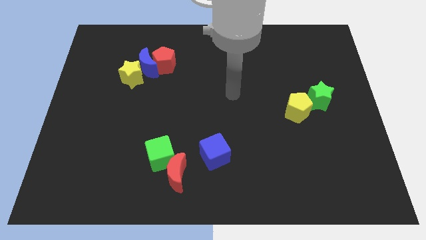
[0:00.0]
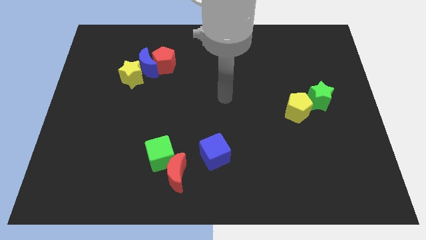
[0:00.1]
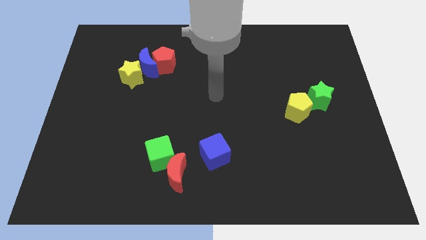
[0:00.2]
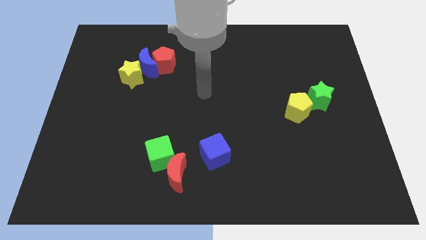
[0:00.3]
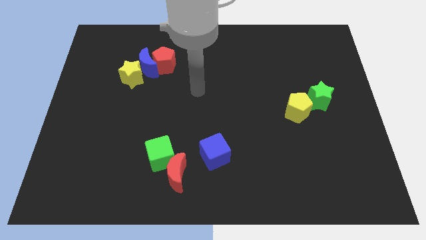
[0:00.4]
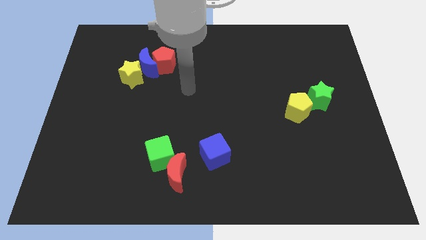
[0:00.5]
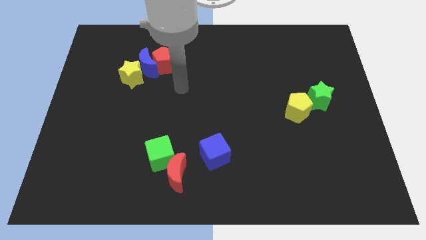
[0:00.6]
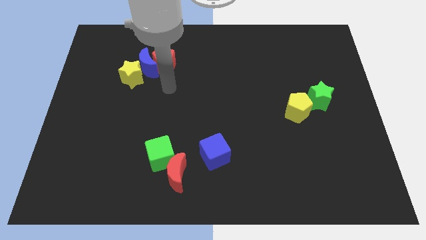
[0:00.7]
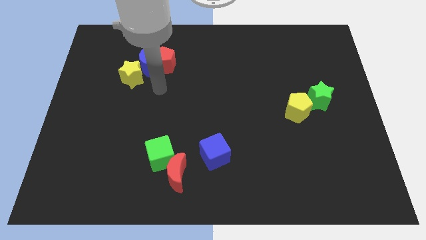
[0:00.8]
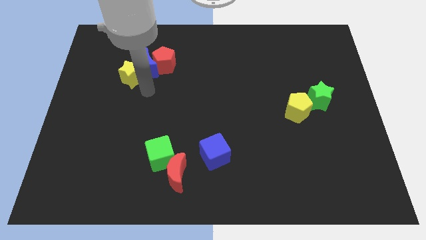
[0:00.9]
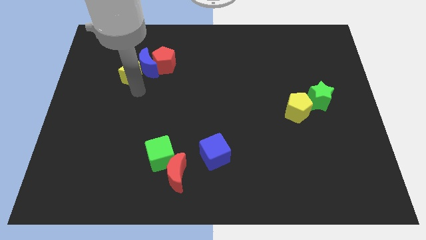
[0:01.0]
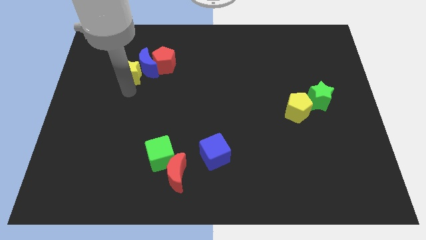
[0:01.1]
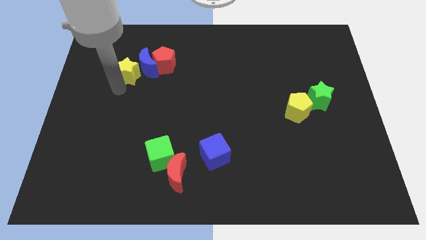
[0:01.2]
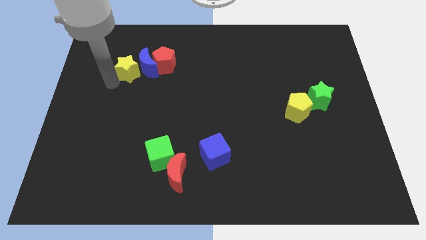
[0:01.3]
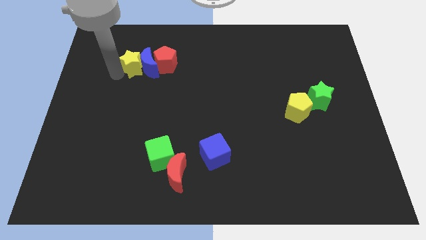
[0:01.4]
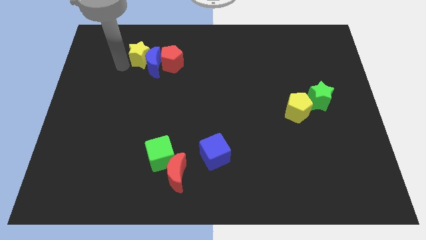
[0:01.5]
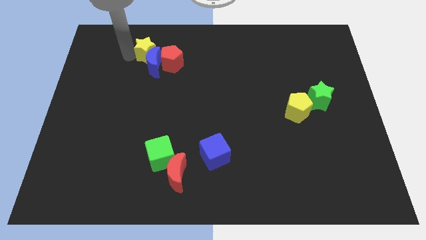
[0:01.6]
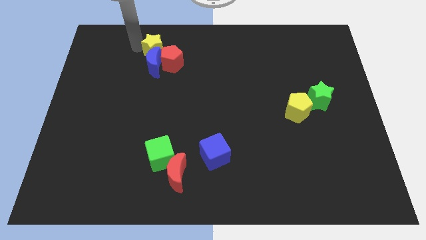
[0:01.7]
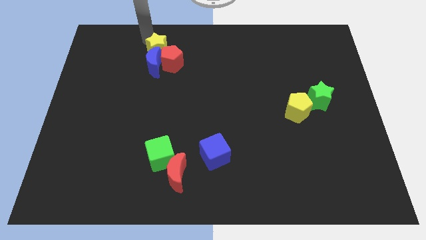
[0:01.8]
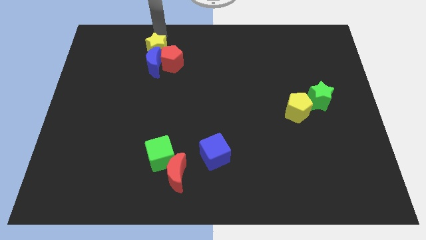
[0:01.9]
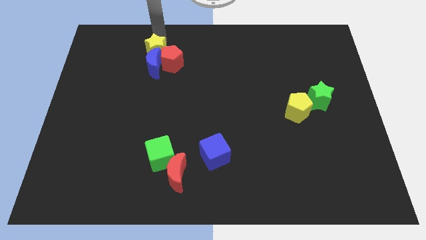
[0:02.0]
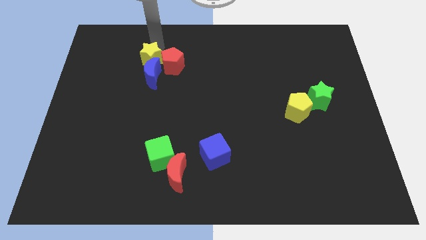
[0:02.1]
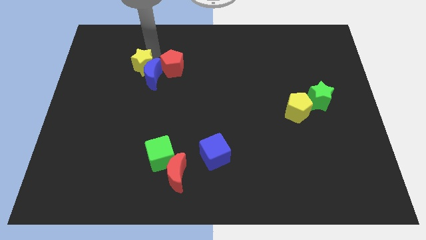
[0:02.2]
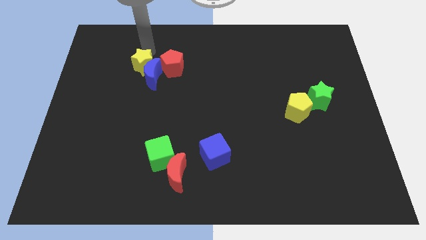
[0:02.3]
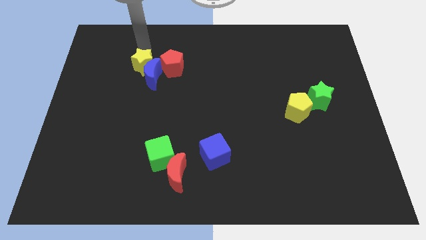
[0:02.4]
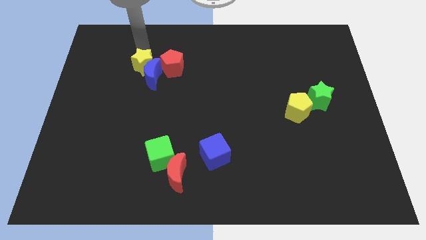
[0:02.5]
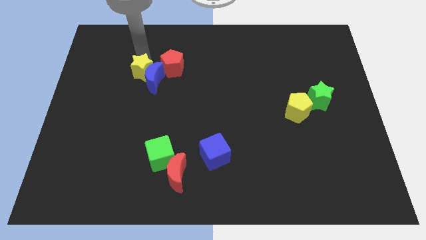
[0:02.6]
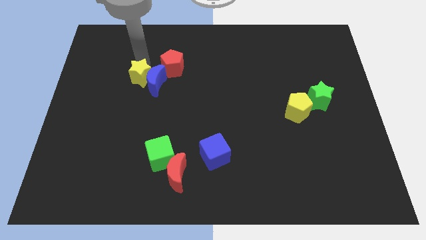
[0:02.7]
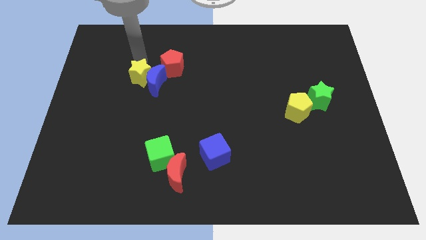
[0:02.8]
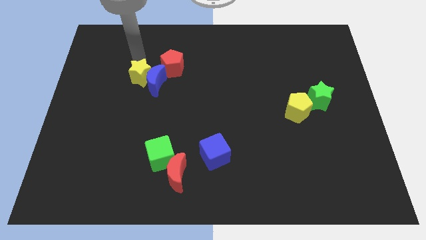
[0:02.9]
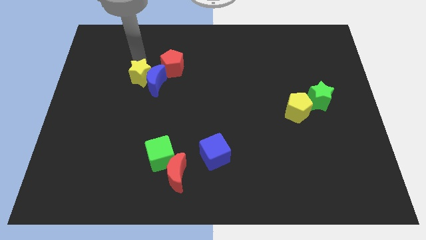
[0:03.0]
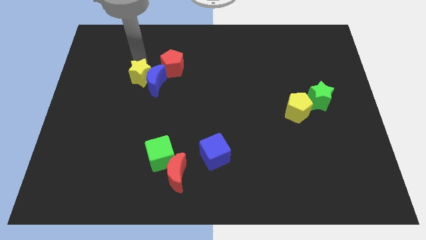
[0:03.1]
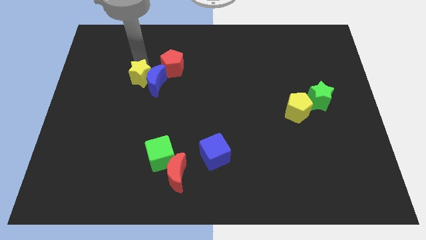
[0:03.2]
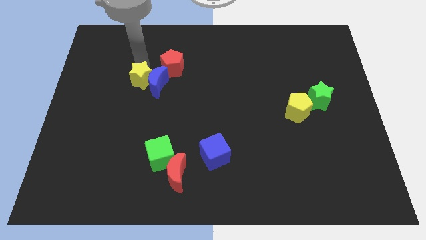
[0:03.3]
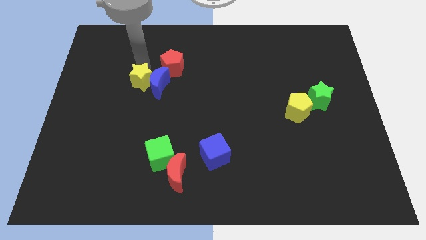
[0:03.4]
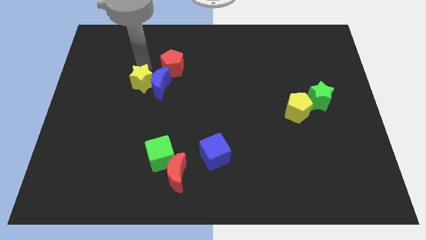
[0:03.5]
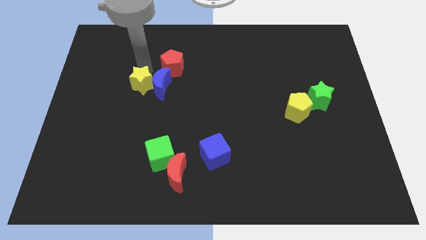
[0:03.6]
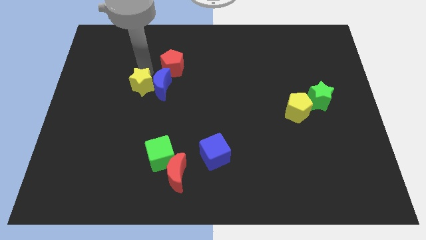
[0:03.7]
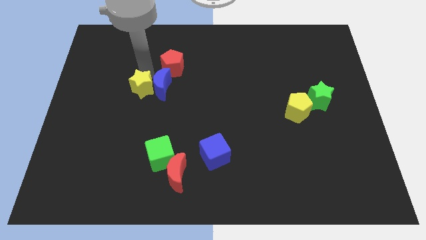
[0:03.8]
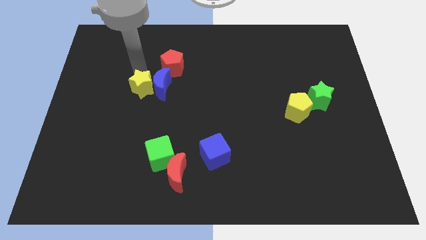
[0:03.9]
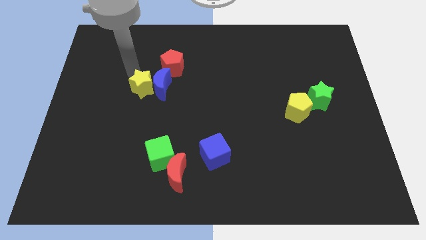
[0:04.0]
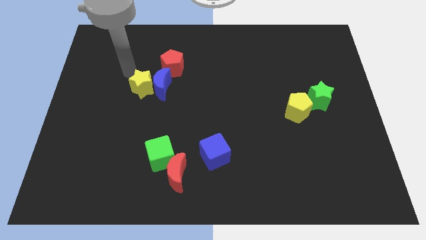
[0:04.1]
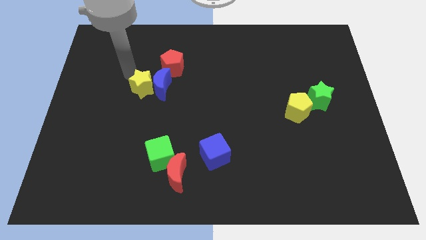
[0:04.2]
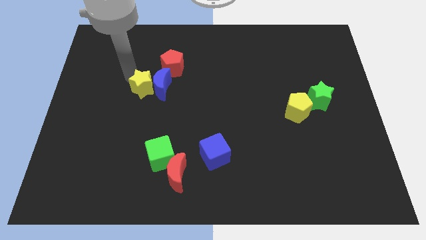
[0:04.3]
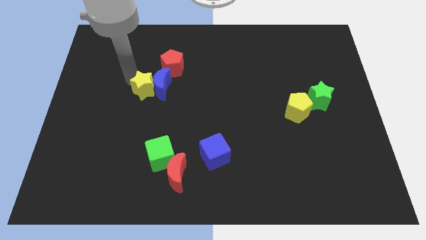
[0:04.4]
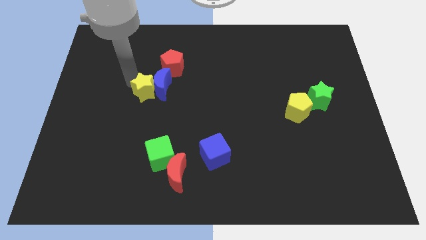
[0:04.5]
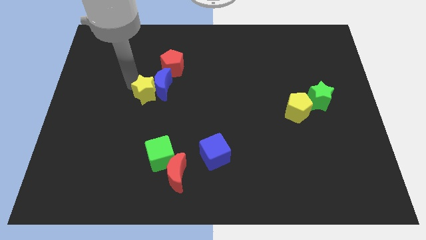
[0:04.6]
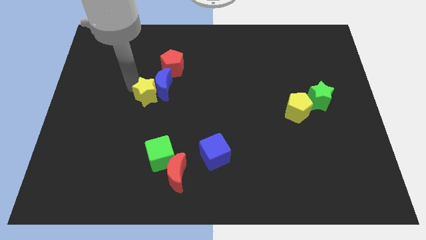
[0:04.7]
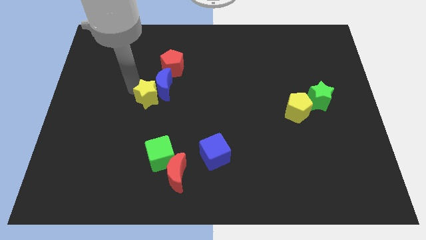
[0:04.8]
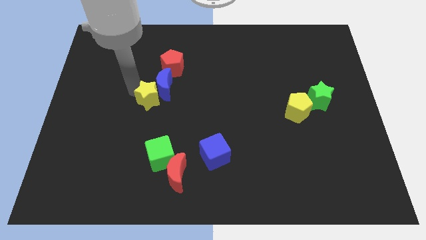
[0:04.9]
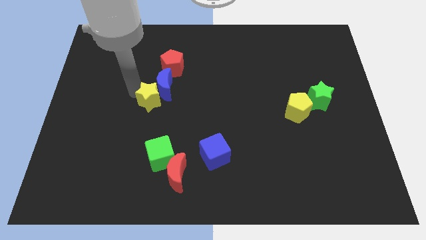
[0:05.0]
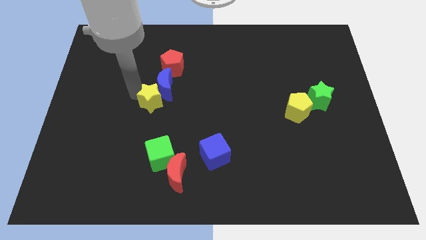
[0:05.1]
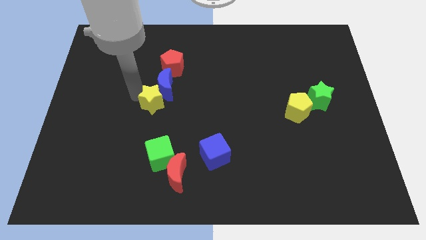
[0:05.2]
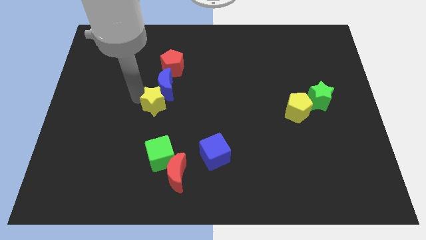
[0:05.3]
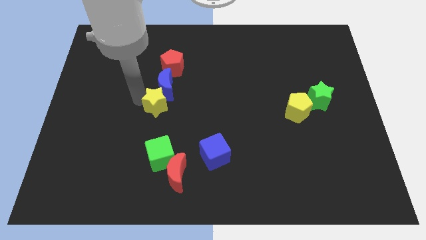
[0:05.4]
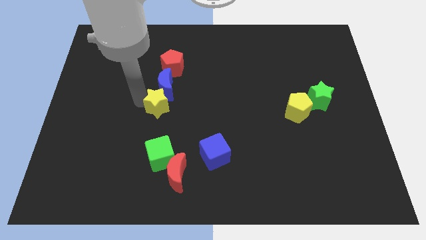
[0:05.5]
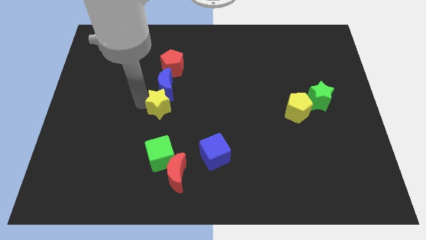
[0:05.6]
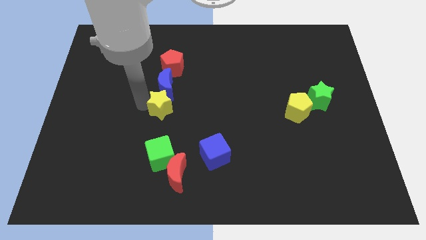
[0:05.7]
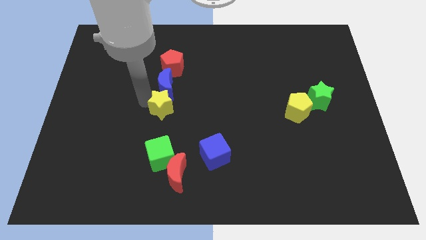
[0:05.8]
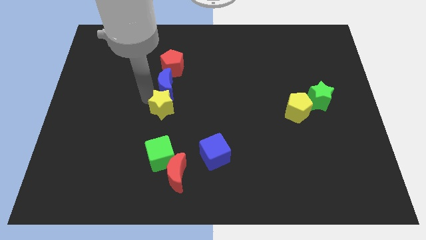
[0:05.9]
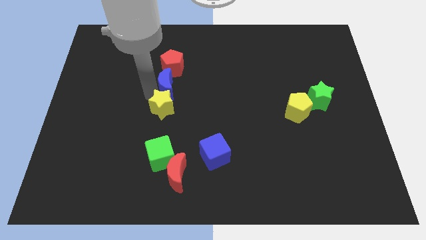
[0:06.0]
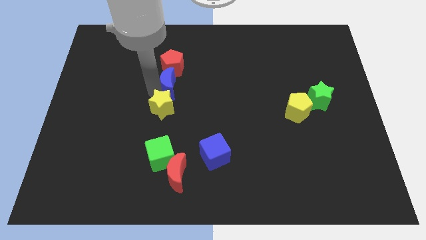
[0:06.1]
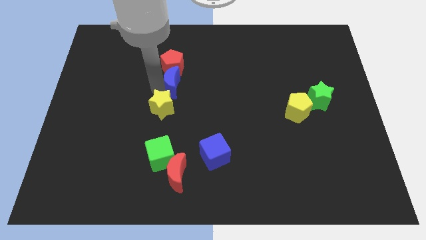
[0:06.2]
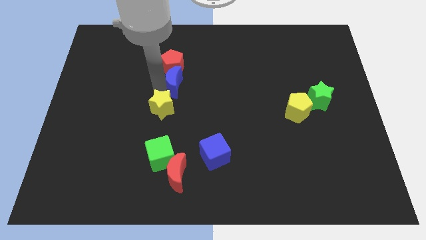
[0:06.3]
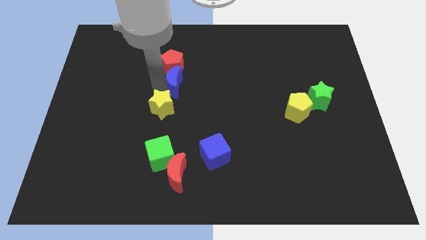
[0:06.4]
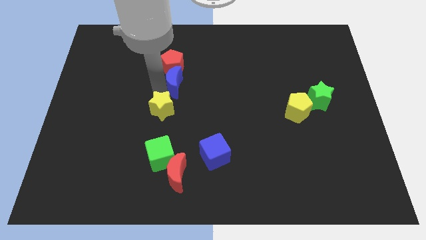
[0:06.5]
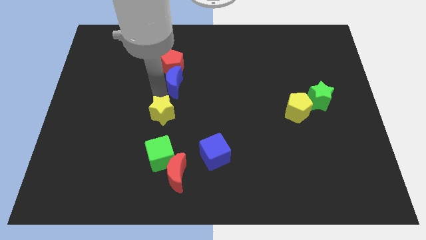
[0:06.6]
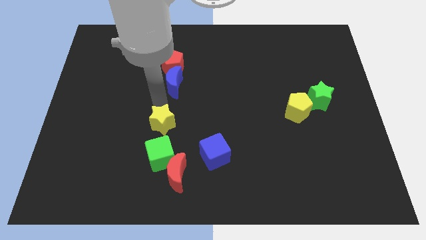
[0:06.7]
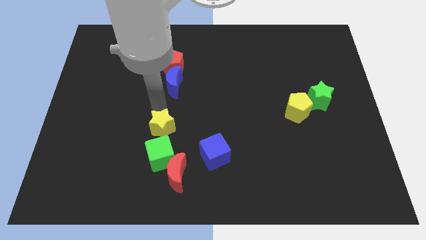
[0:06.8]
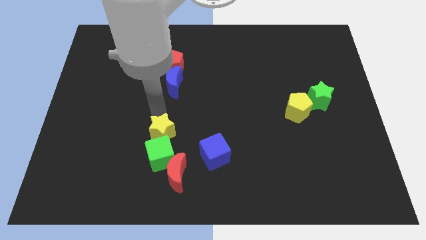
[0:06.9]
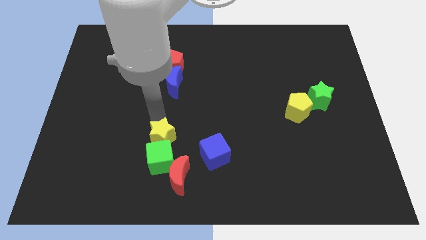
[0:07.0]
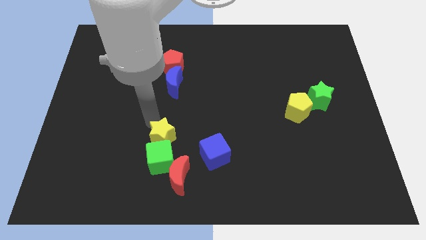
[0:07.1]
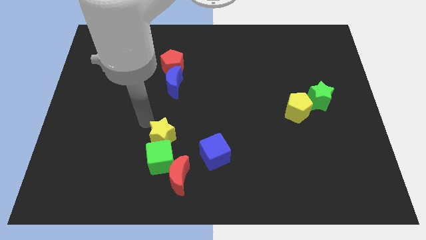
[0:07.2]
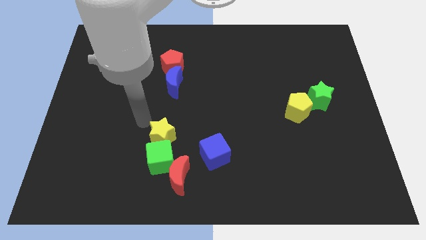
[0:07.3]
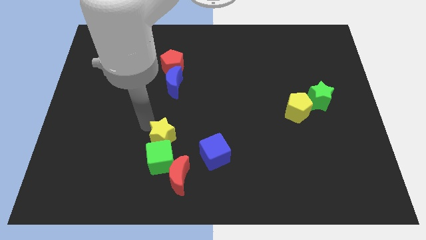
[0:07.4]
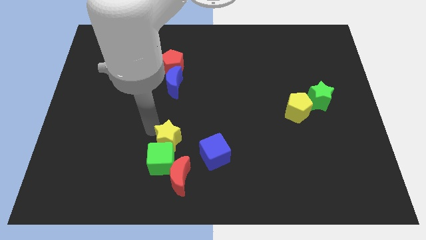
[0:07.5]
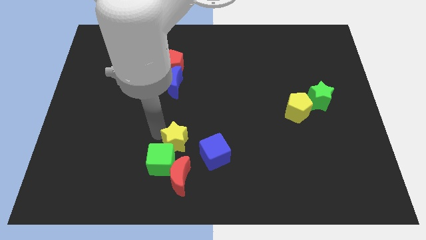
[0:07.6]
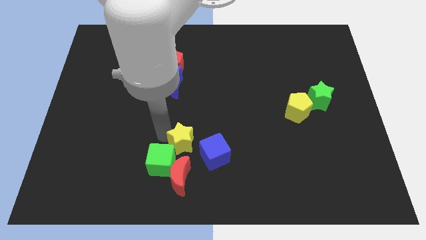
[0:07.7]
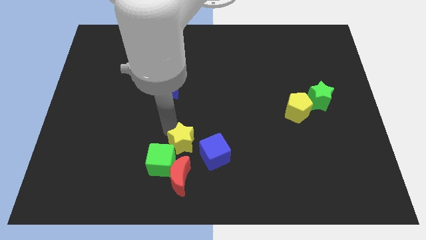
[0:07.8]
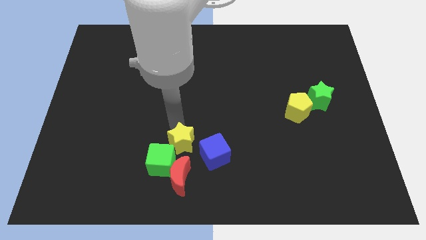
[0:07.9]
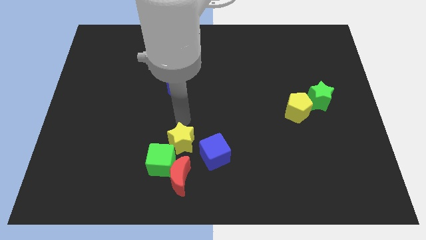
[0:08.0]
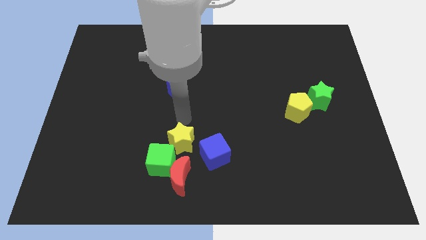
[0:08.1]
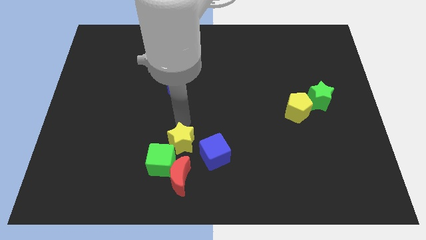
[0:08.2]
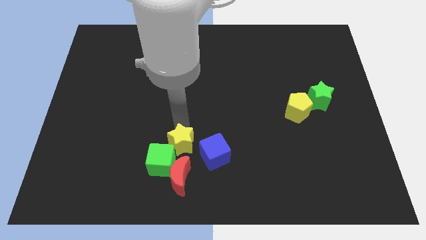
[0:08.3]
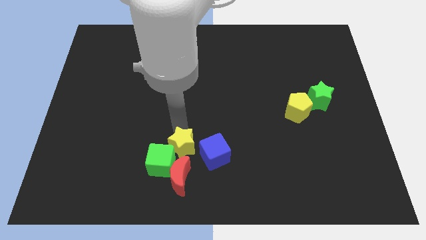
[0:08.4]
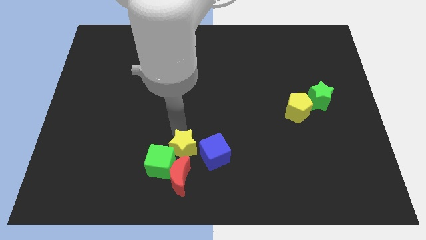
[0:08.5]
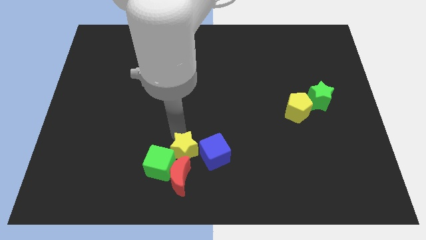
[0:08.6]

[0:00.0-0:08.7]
move the yellow star to the red moon
